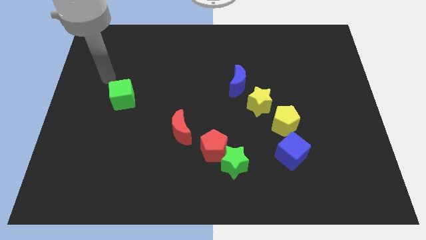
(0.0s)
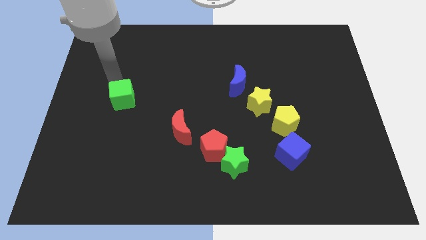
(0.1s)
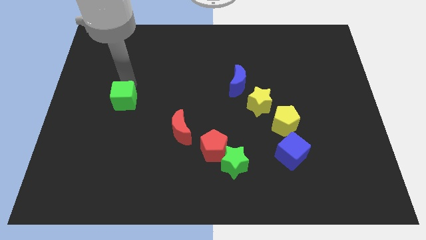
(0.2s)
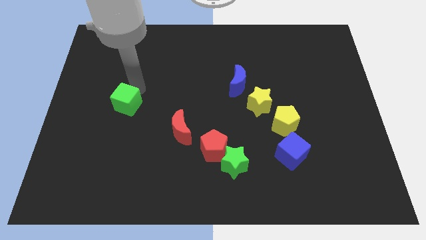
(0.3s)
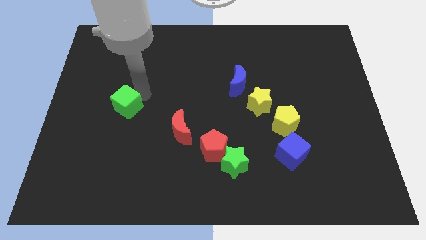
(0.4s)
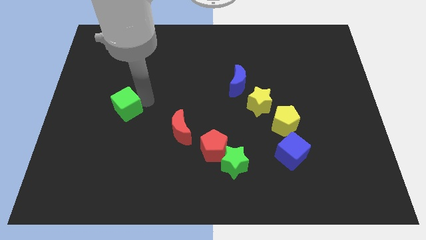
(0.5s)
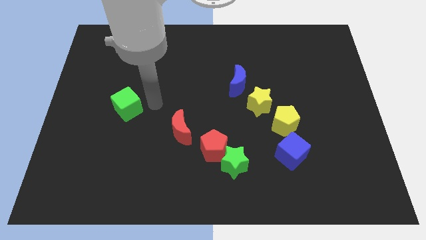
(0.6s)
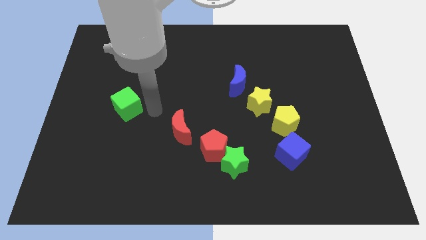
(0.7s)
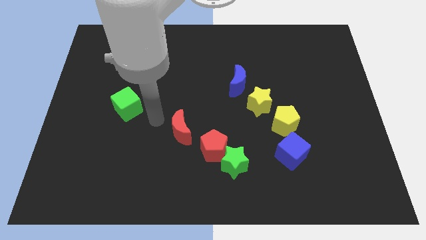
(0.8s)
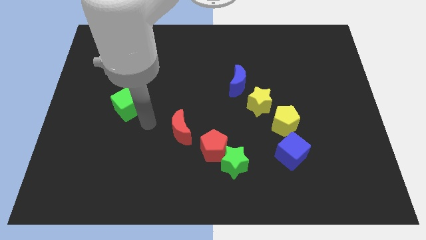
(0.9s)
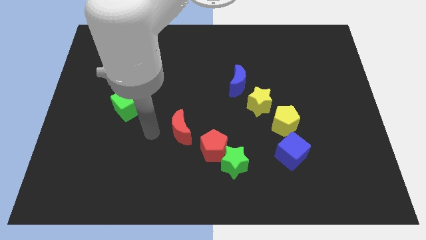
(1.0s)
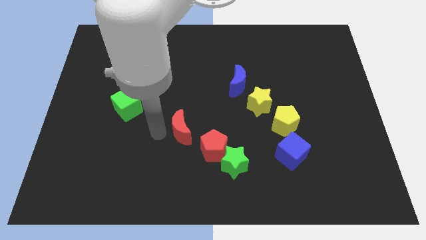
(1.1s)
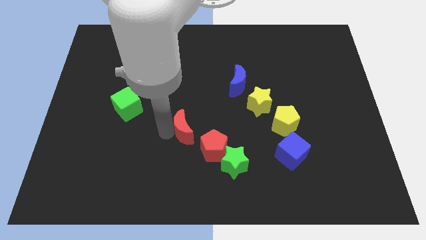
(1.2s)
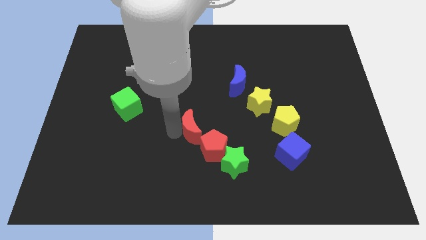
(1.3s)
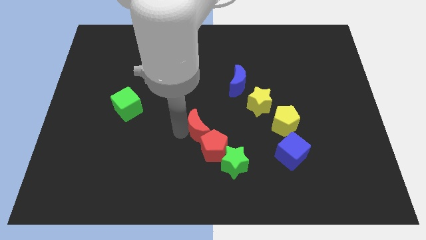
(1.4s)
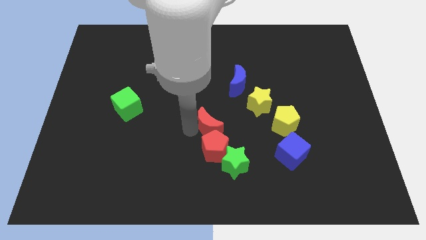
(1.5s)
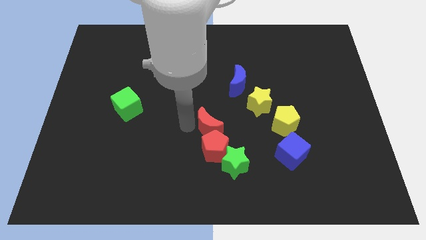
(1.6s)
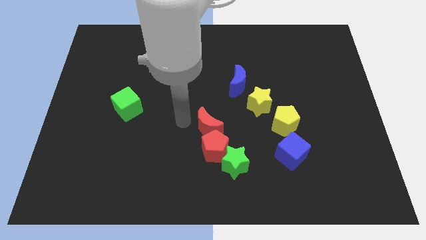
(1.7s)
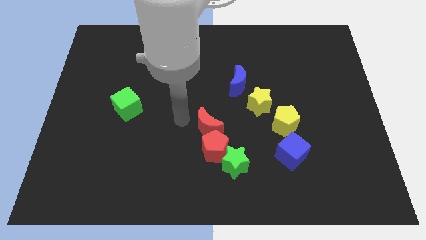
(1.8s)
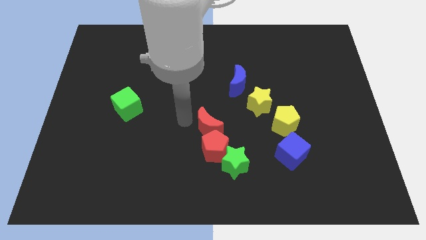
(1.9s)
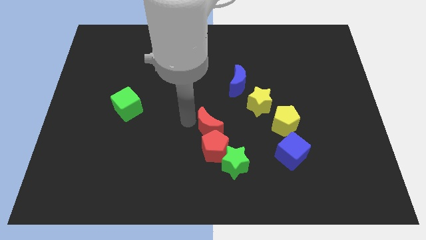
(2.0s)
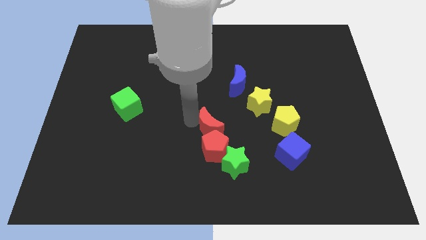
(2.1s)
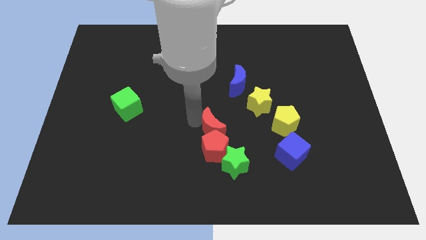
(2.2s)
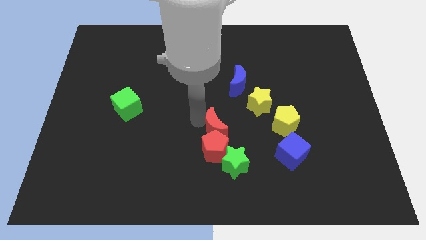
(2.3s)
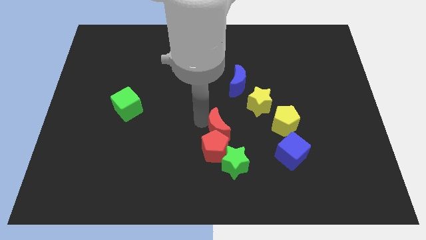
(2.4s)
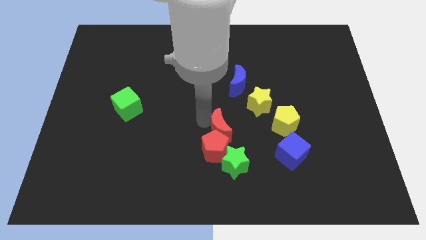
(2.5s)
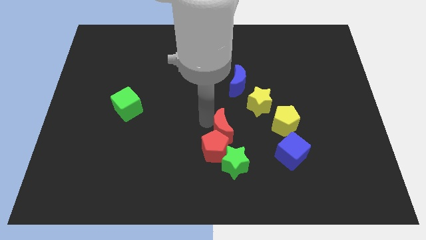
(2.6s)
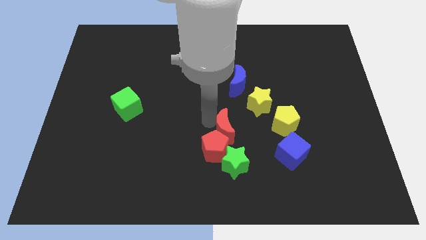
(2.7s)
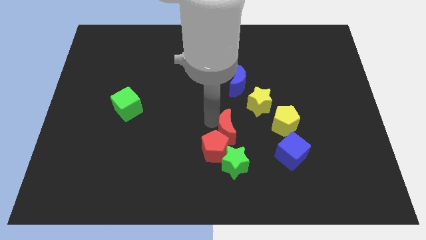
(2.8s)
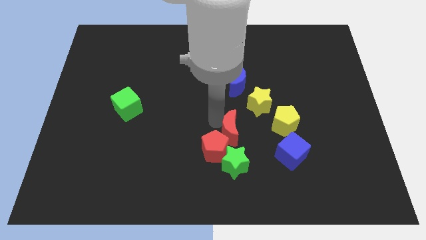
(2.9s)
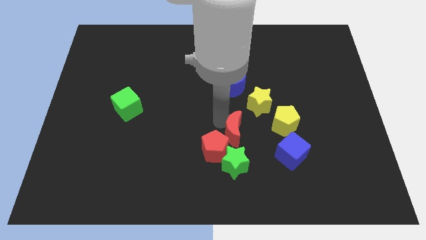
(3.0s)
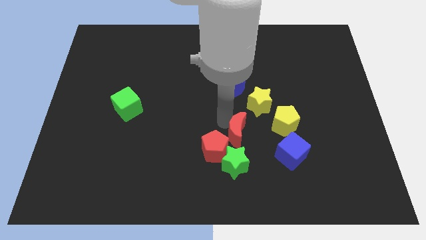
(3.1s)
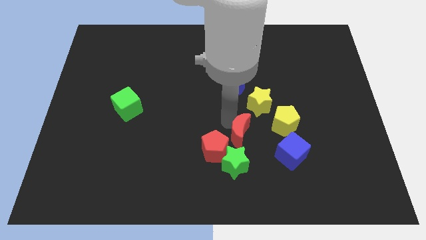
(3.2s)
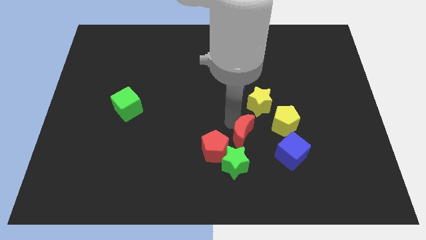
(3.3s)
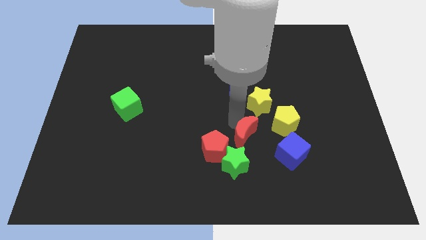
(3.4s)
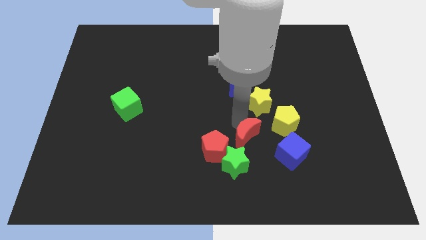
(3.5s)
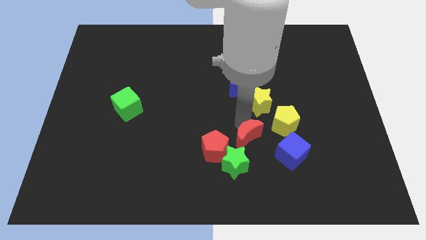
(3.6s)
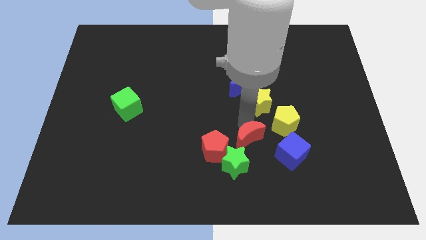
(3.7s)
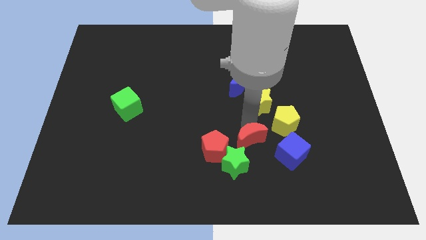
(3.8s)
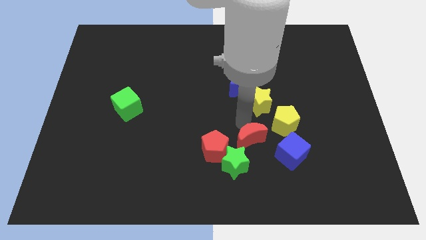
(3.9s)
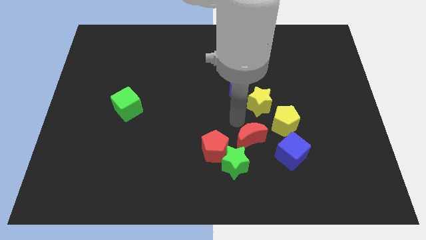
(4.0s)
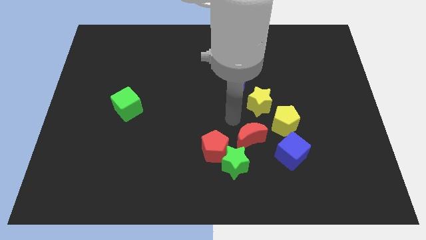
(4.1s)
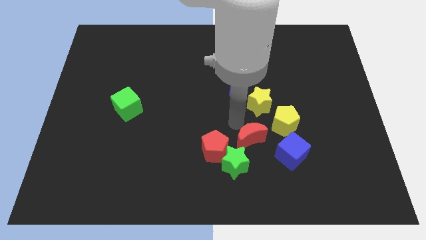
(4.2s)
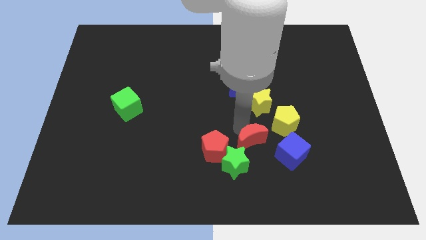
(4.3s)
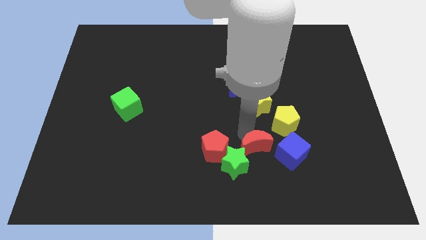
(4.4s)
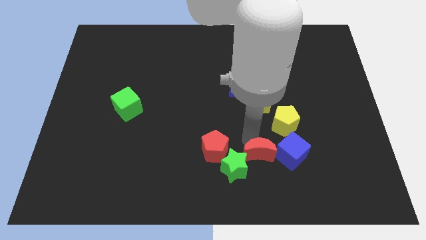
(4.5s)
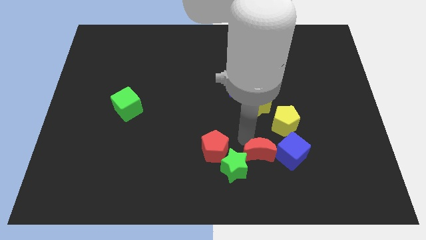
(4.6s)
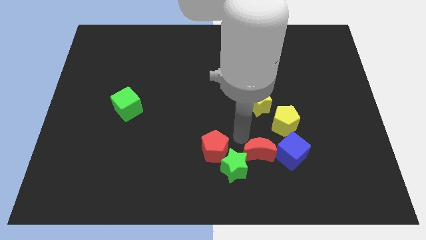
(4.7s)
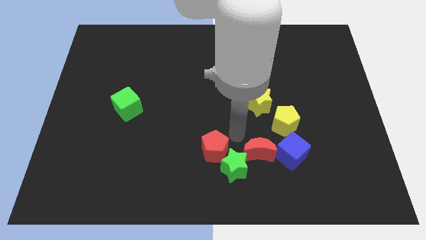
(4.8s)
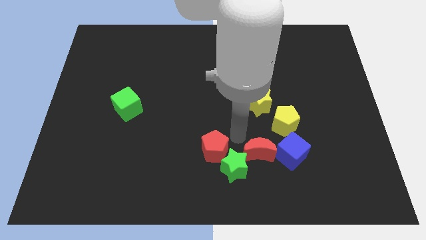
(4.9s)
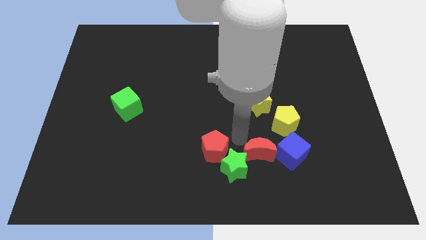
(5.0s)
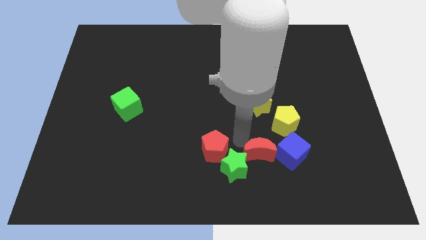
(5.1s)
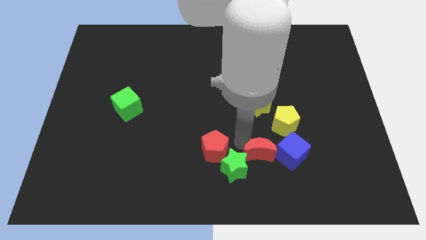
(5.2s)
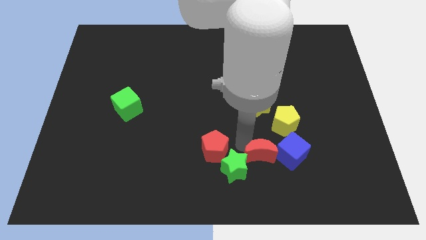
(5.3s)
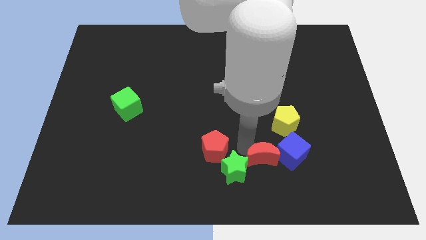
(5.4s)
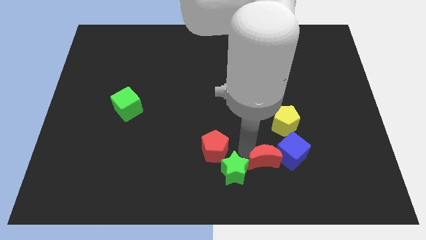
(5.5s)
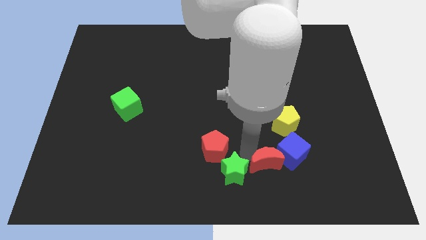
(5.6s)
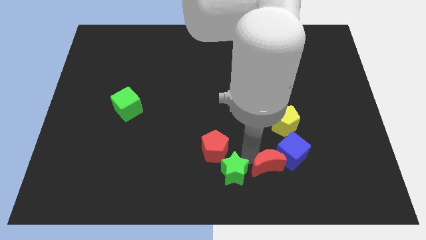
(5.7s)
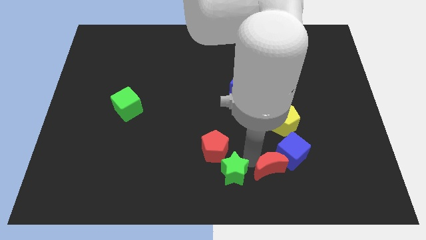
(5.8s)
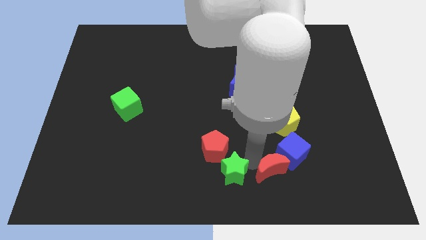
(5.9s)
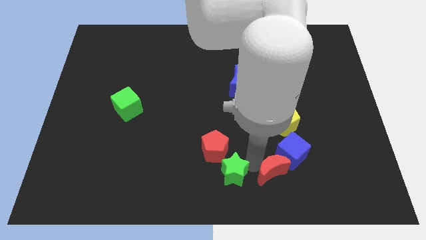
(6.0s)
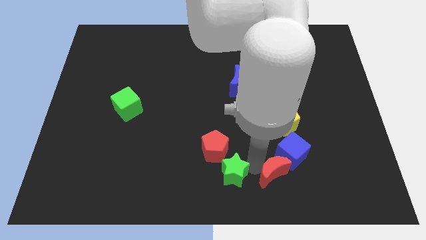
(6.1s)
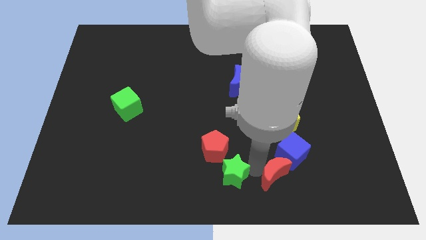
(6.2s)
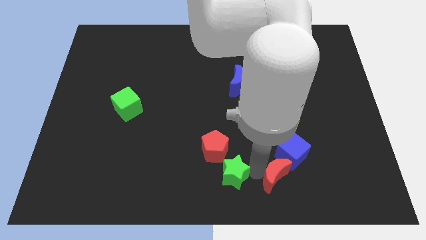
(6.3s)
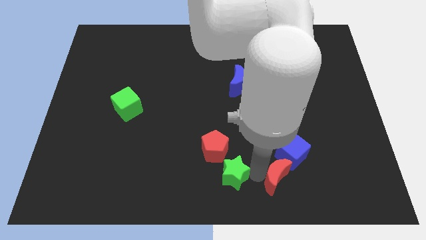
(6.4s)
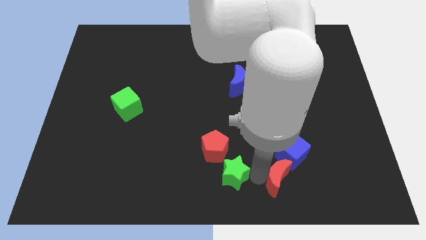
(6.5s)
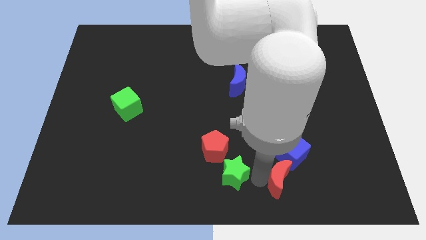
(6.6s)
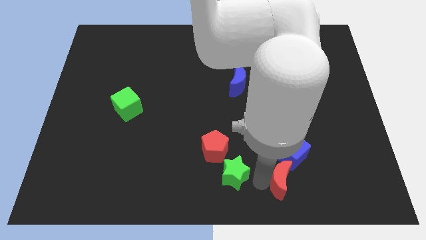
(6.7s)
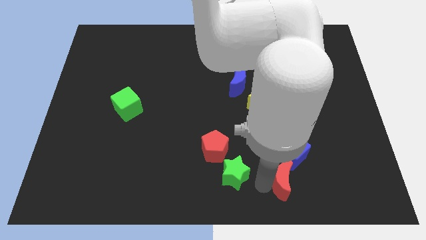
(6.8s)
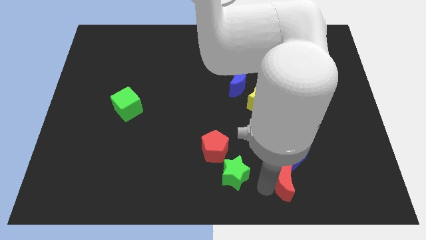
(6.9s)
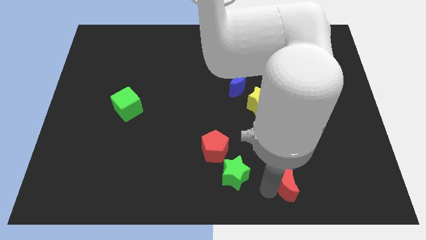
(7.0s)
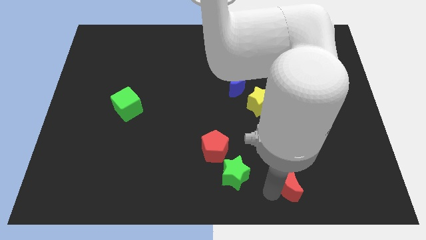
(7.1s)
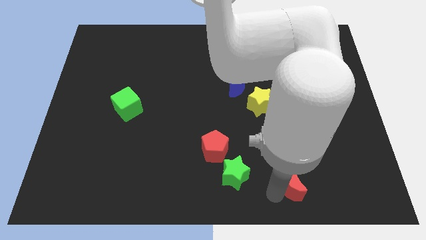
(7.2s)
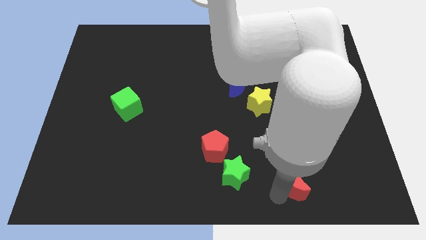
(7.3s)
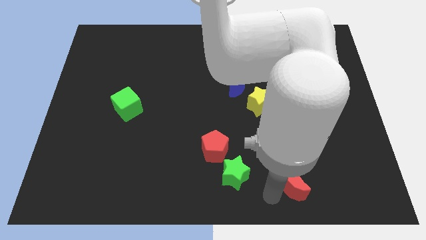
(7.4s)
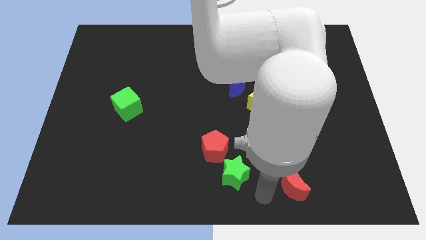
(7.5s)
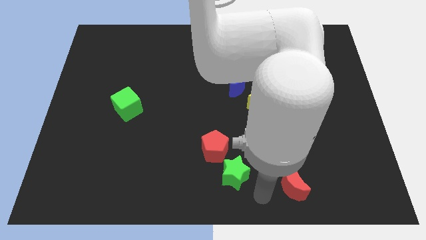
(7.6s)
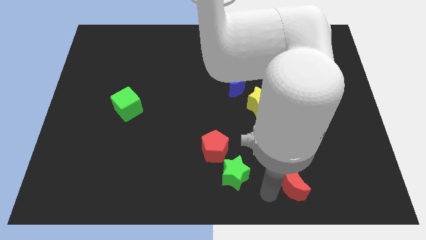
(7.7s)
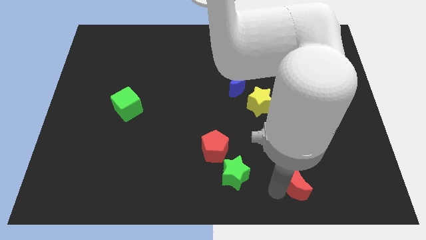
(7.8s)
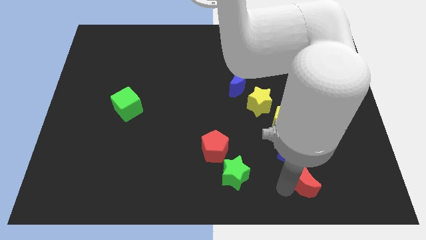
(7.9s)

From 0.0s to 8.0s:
push the red moon to the bottom right of the blue cube
